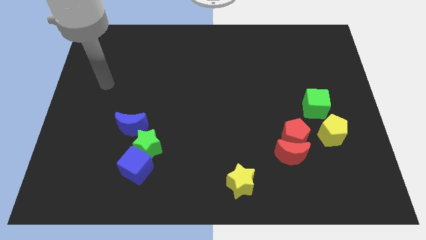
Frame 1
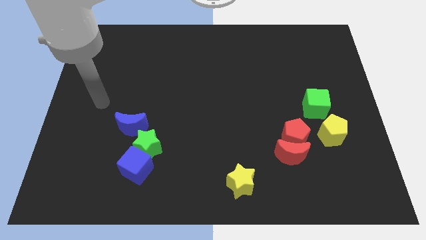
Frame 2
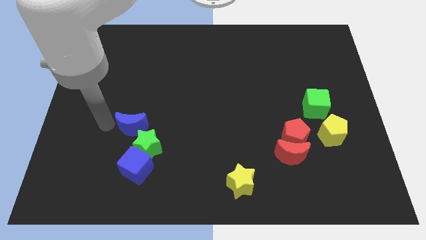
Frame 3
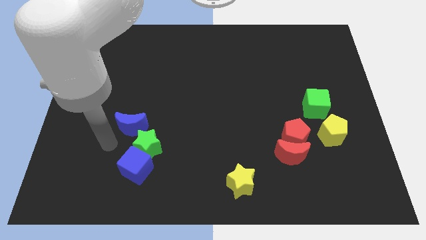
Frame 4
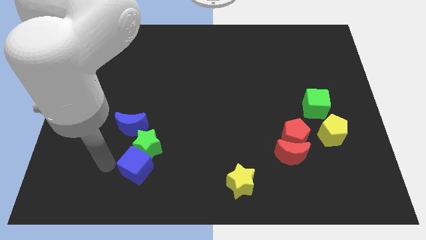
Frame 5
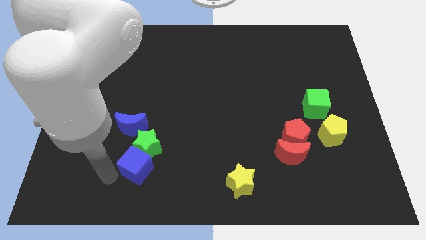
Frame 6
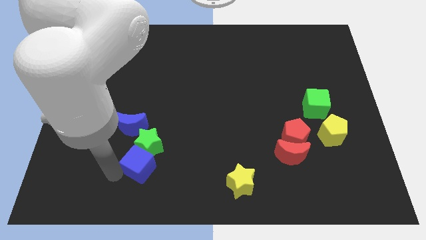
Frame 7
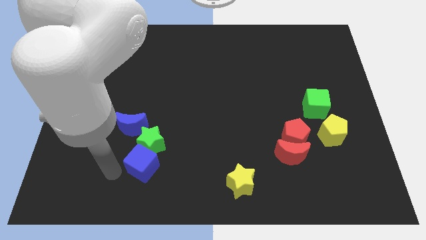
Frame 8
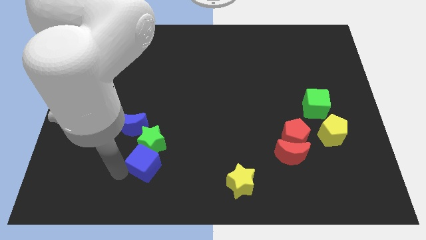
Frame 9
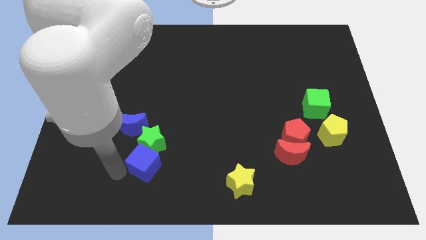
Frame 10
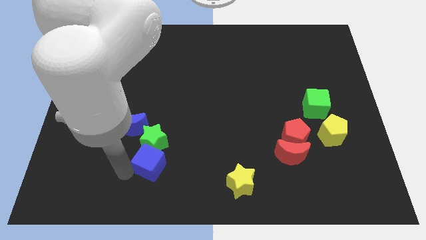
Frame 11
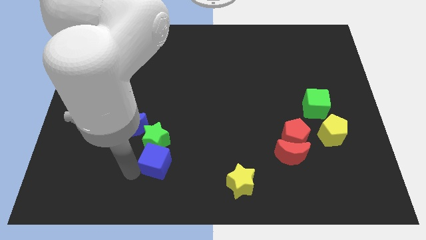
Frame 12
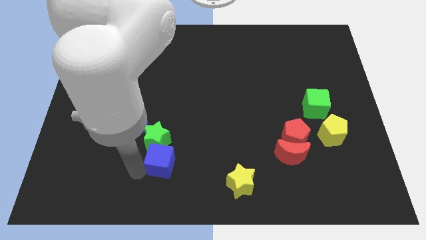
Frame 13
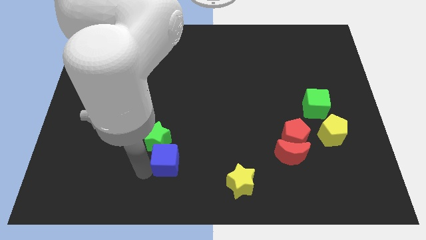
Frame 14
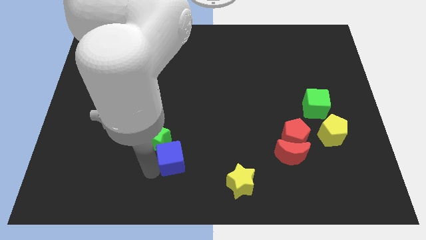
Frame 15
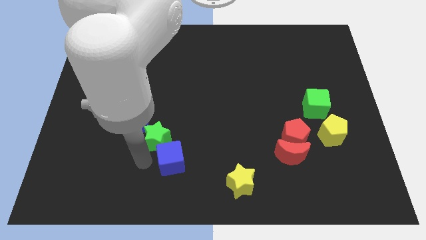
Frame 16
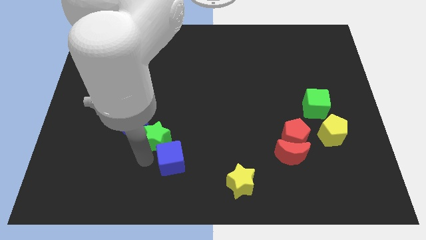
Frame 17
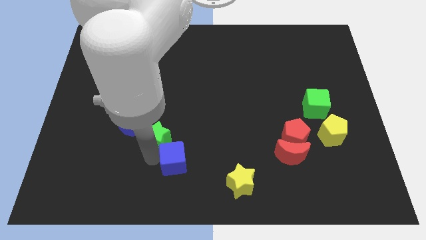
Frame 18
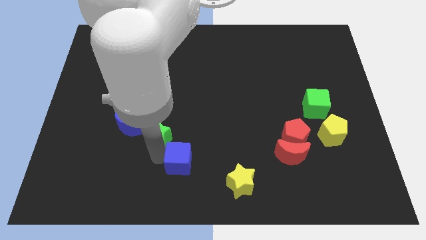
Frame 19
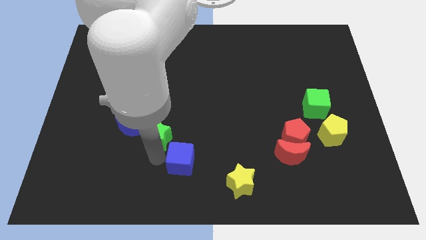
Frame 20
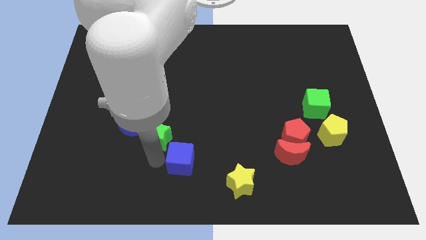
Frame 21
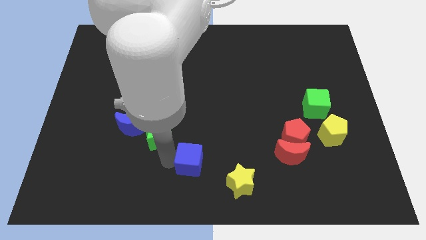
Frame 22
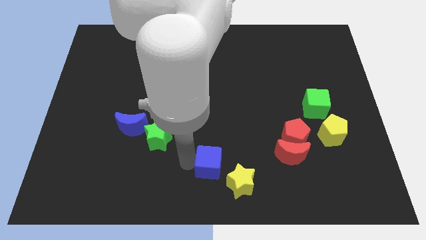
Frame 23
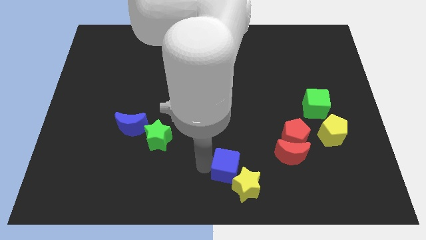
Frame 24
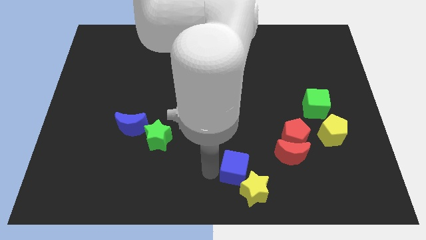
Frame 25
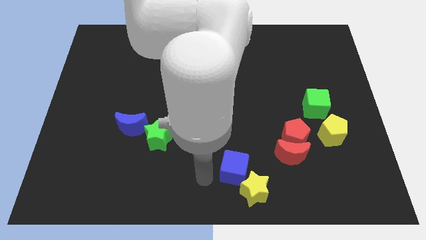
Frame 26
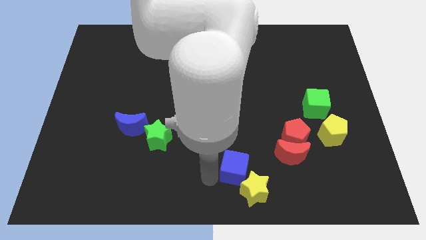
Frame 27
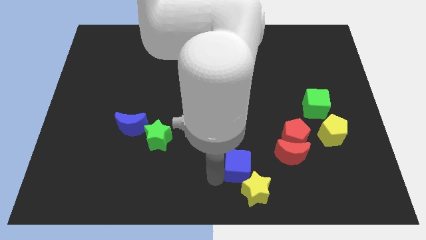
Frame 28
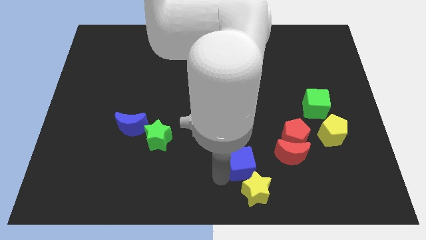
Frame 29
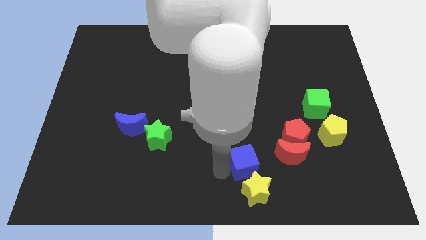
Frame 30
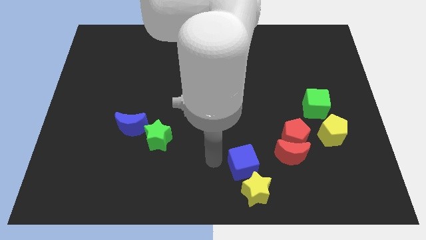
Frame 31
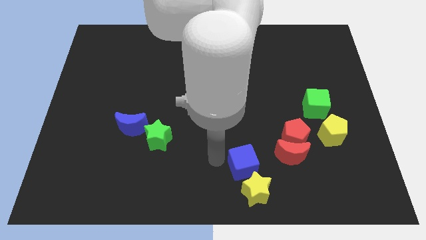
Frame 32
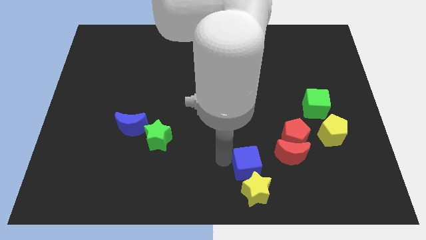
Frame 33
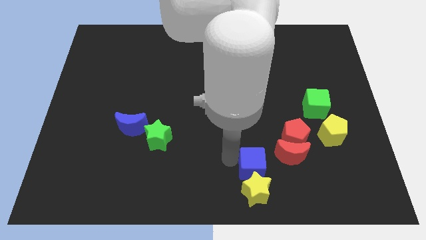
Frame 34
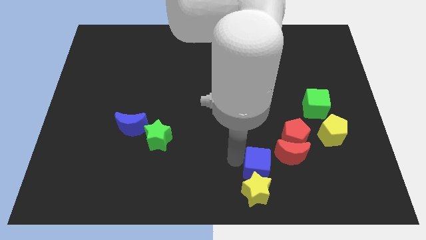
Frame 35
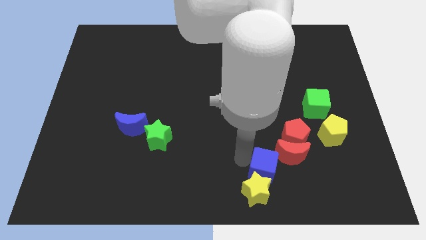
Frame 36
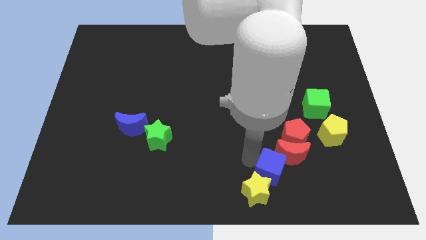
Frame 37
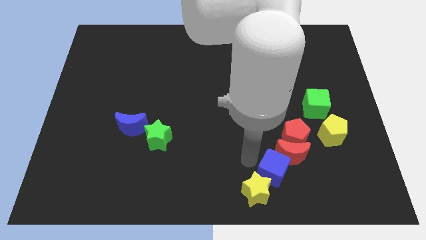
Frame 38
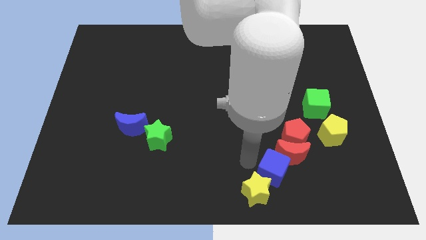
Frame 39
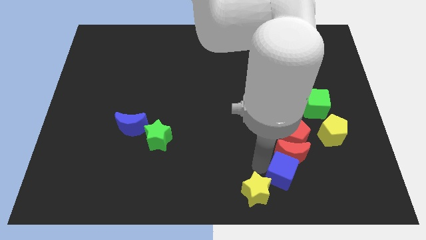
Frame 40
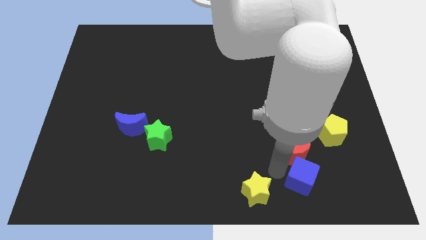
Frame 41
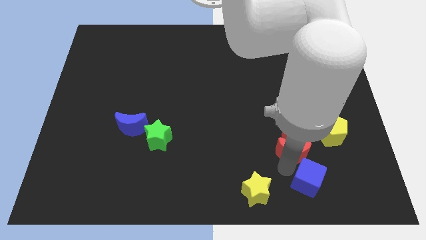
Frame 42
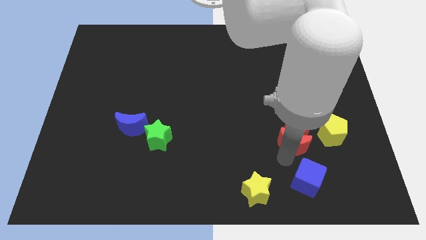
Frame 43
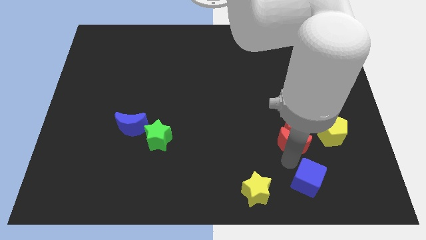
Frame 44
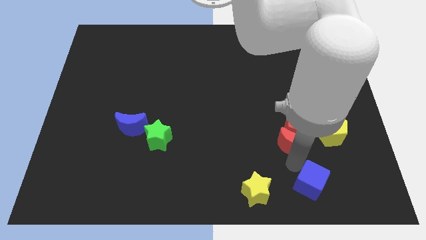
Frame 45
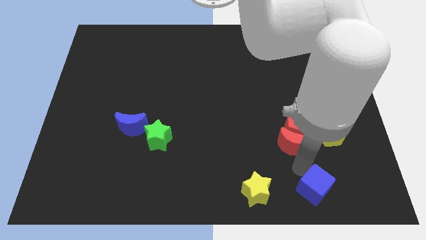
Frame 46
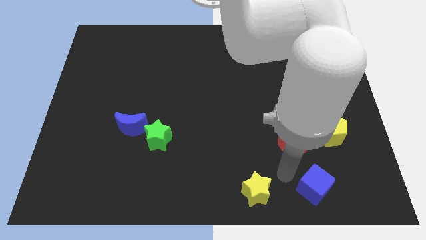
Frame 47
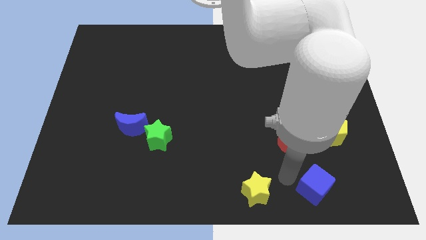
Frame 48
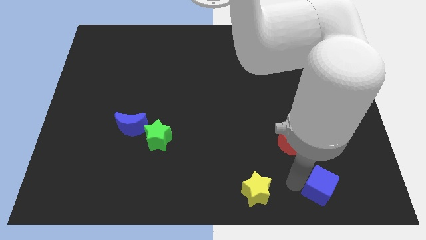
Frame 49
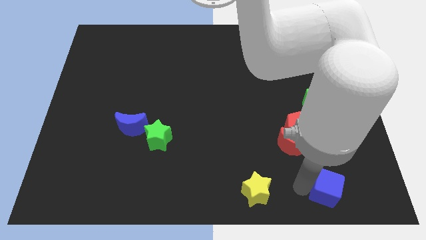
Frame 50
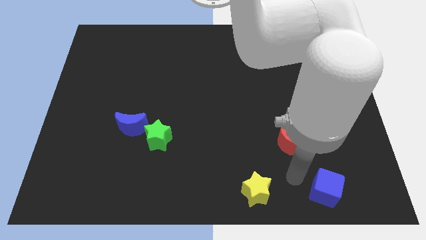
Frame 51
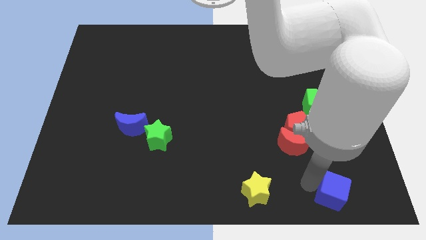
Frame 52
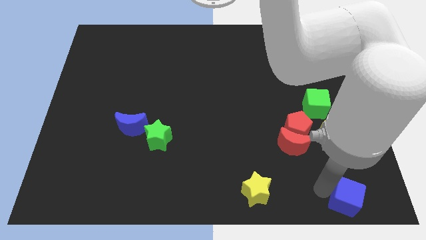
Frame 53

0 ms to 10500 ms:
put the blue cube to the bottom right of the board
